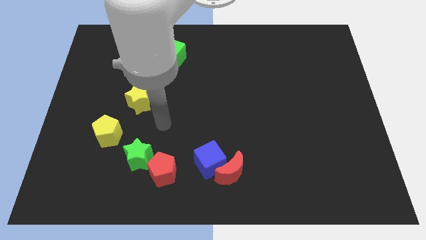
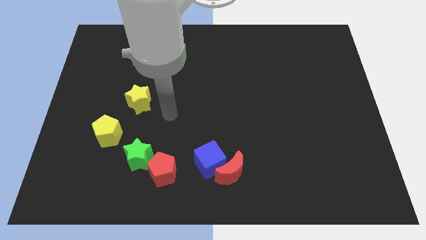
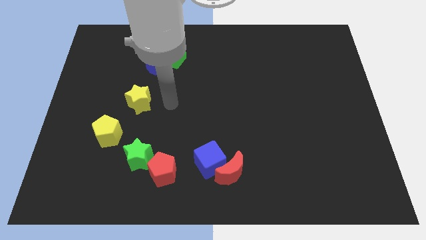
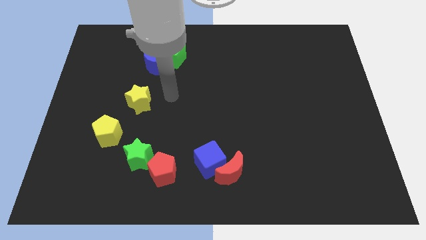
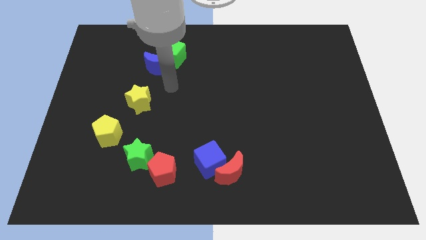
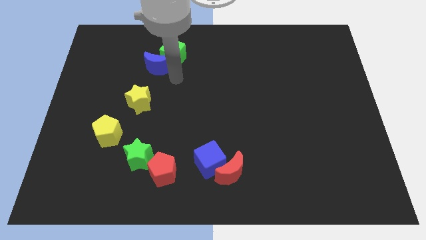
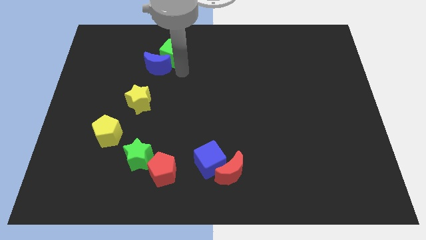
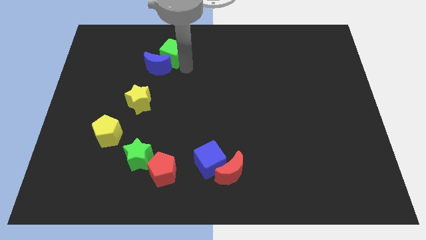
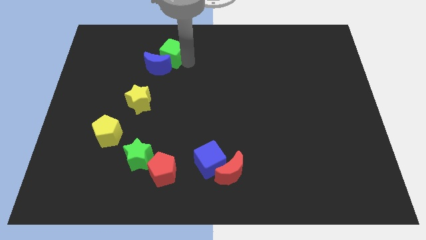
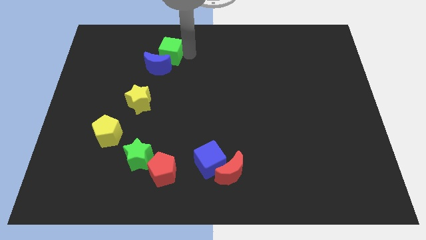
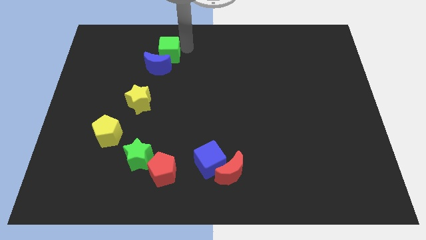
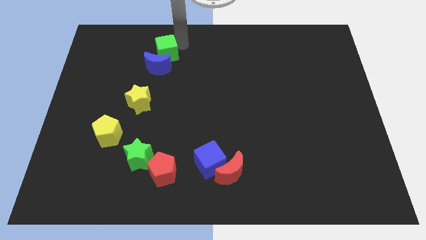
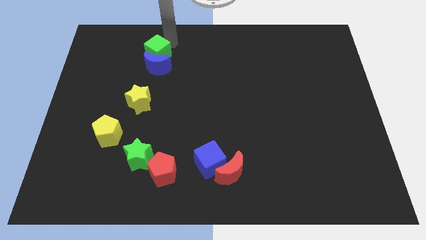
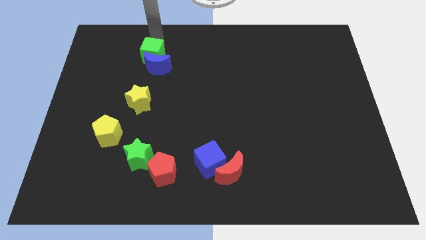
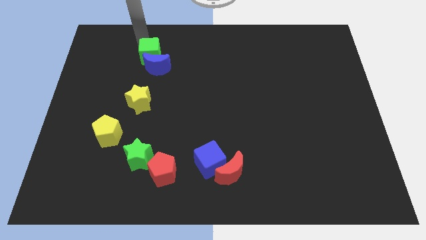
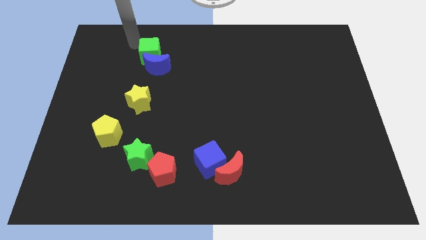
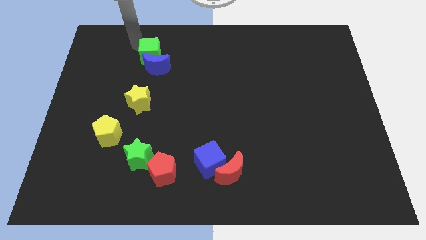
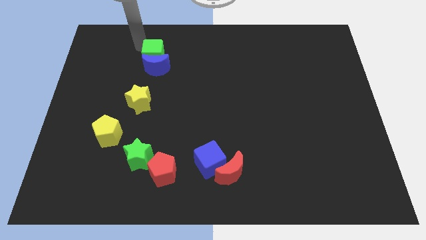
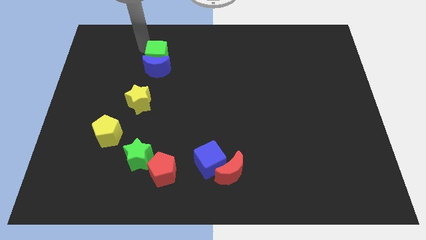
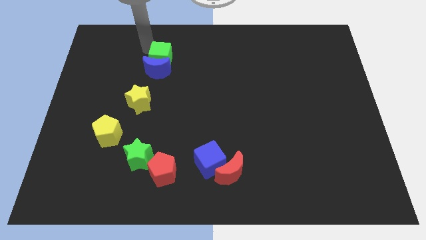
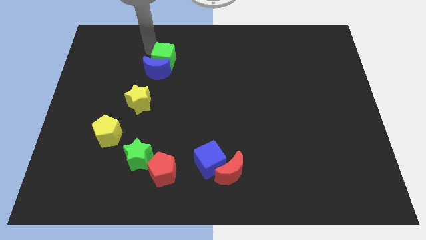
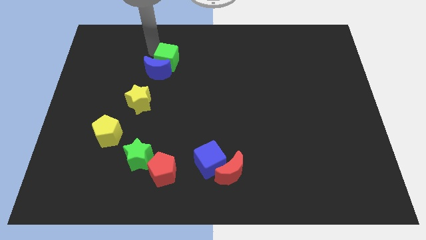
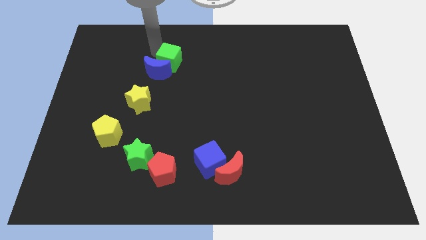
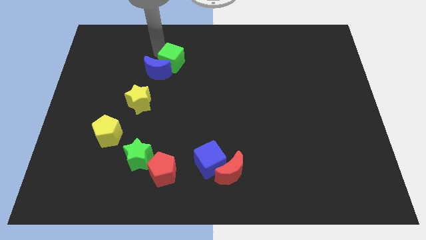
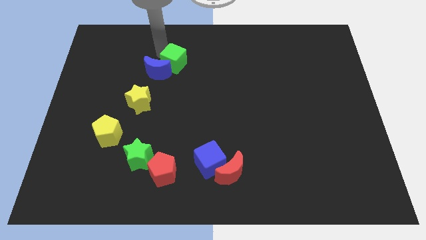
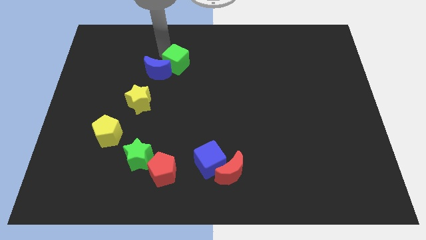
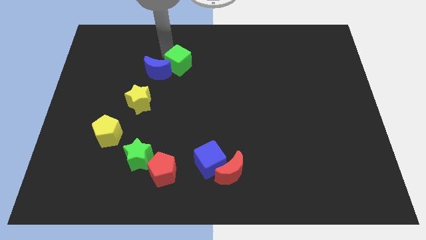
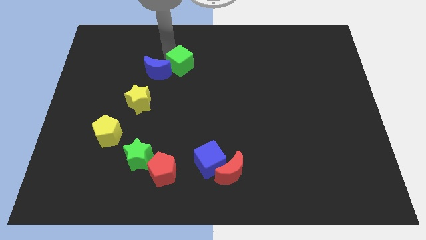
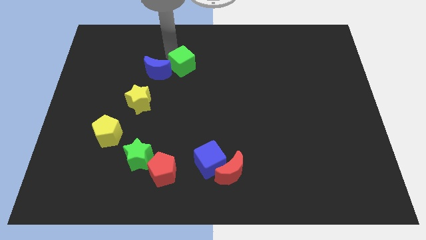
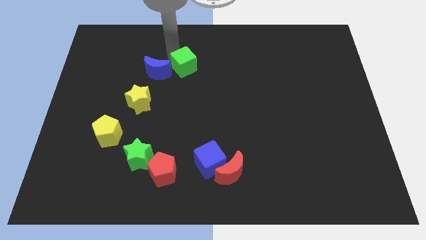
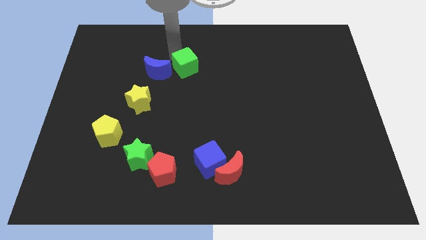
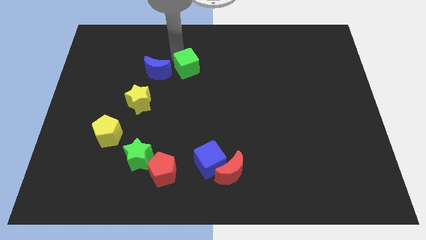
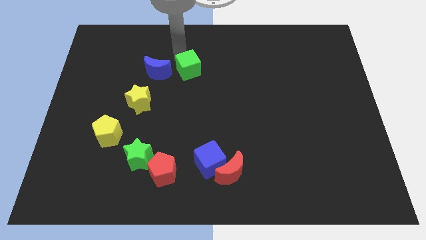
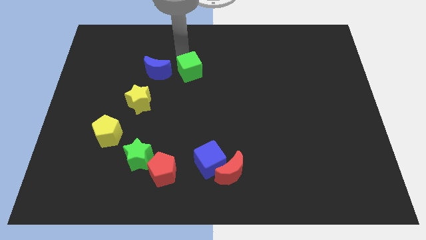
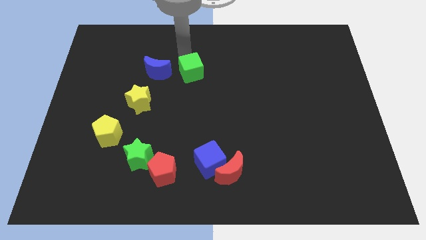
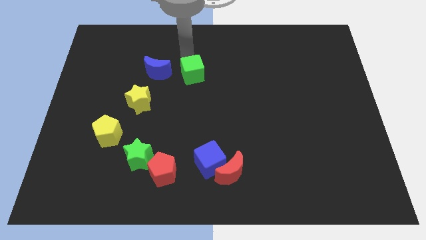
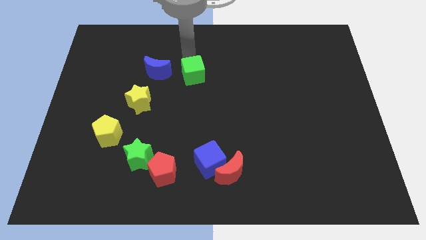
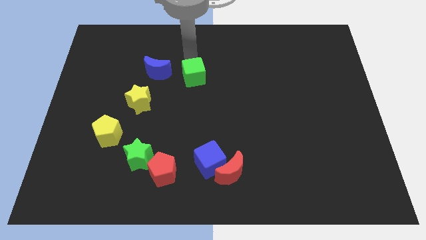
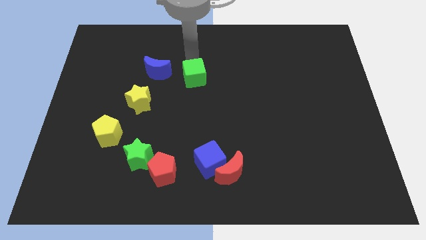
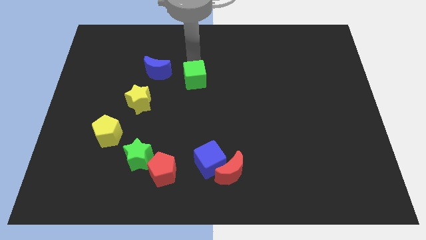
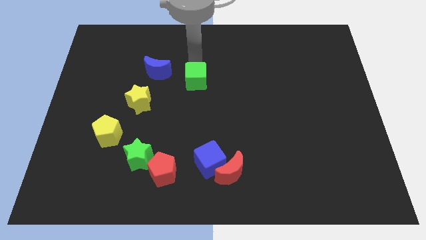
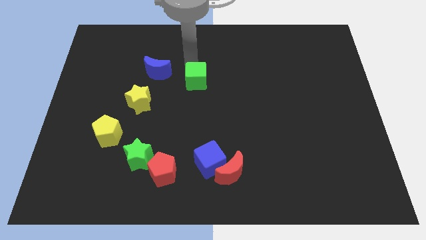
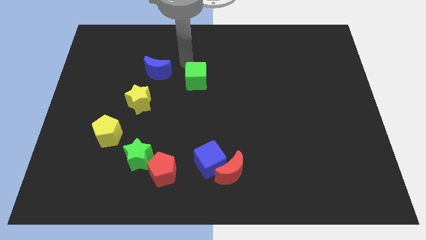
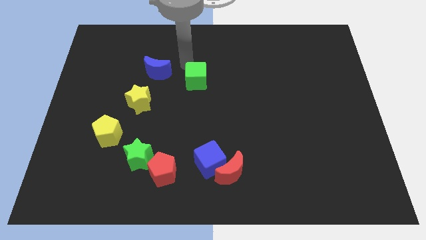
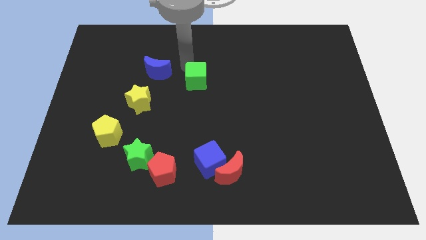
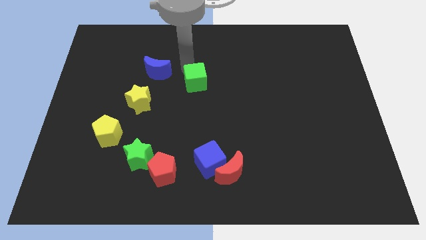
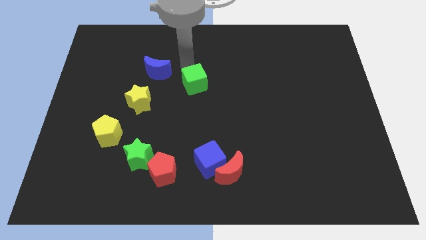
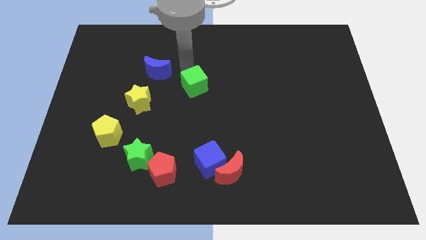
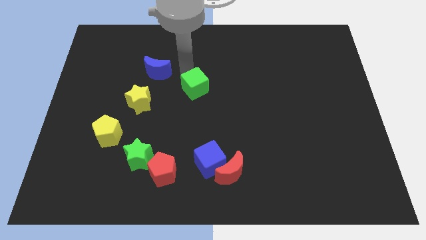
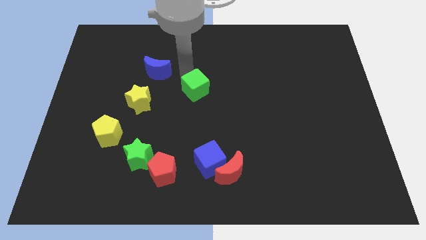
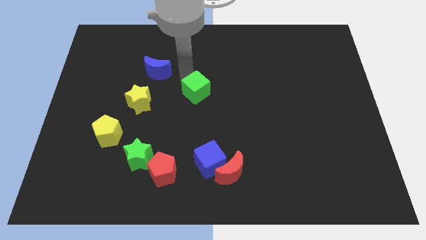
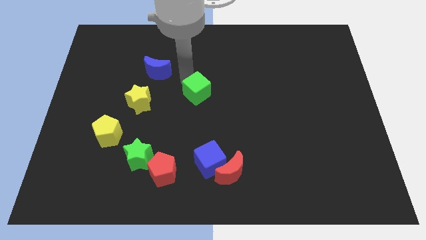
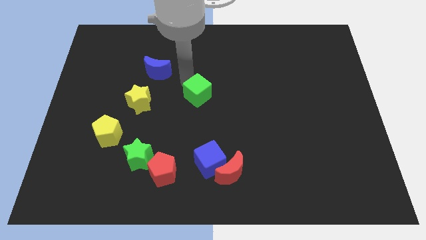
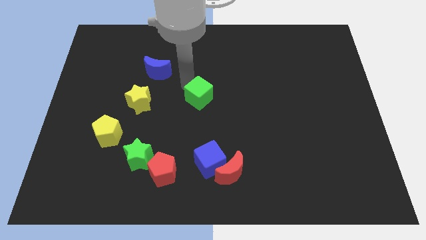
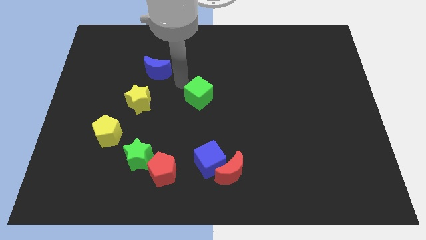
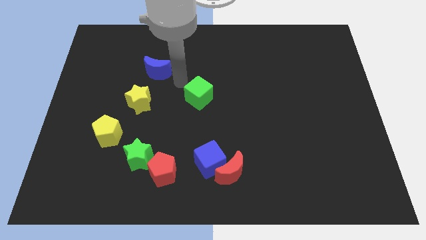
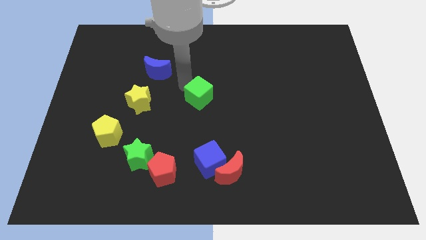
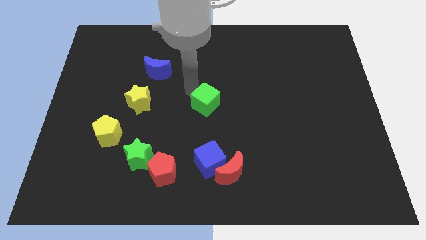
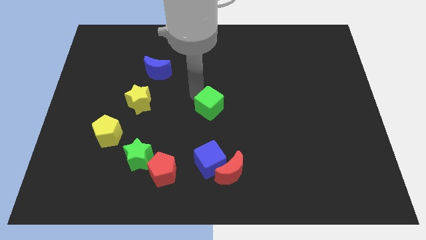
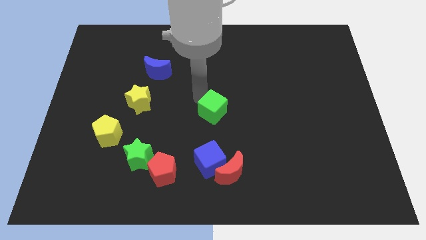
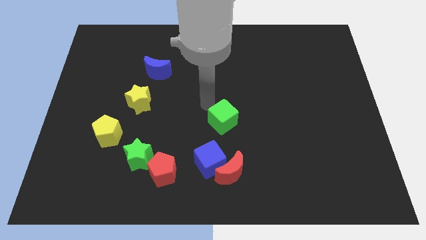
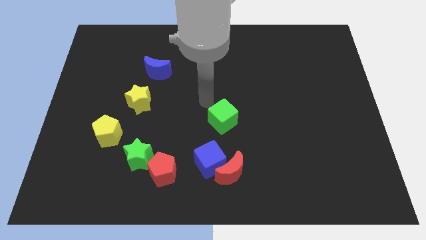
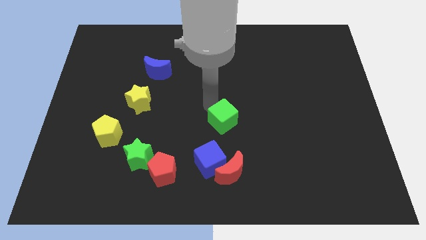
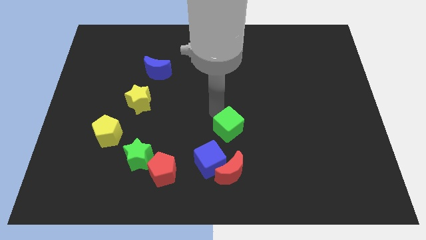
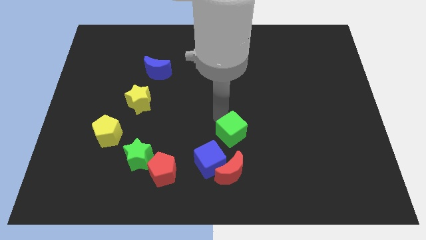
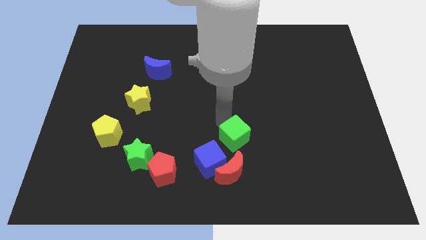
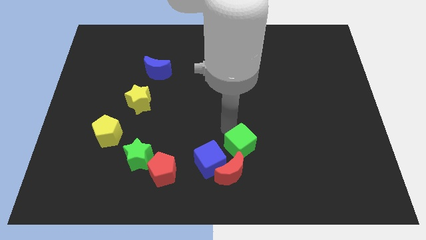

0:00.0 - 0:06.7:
move the green cube to the right of the blue cube
